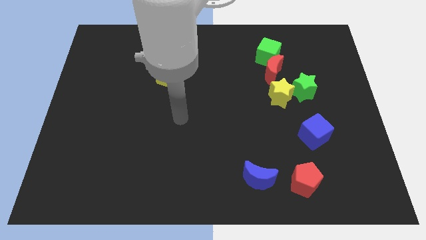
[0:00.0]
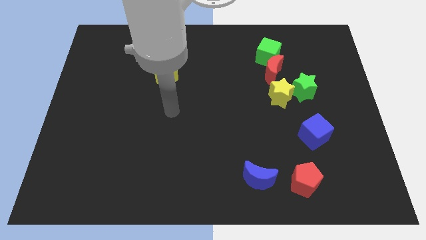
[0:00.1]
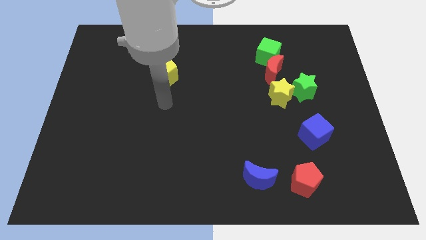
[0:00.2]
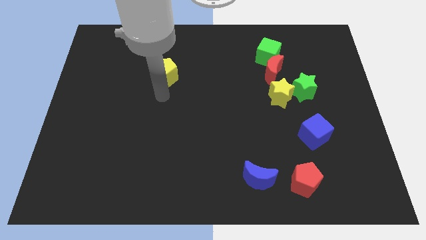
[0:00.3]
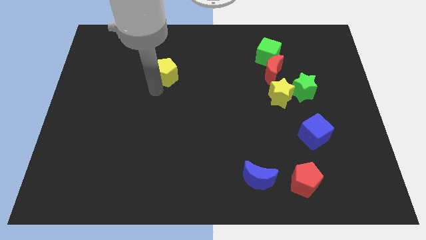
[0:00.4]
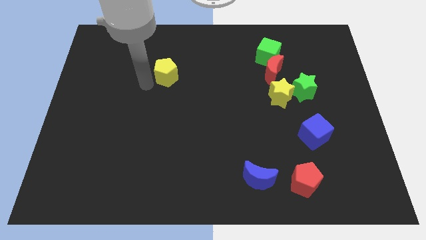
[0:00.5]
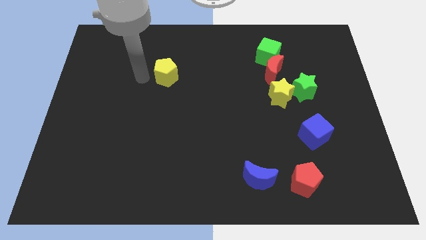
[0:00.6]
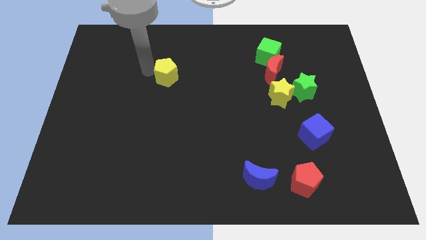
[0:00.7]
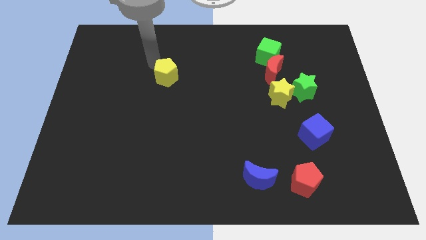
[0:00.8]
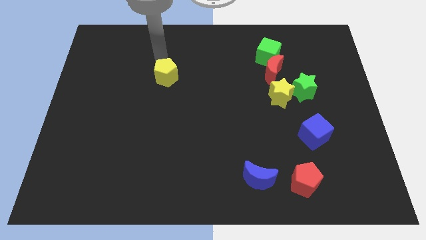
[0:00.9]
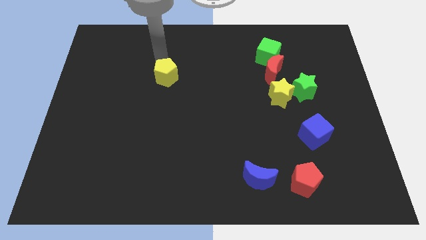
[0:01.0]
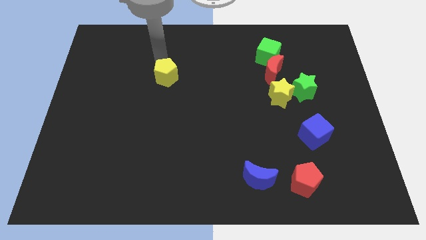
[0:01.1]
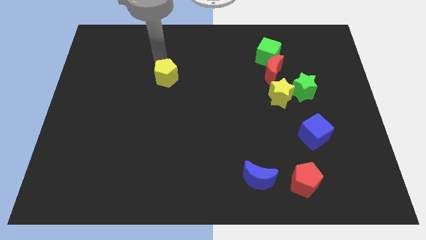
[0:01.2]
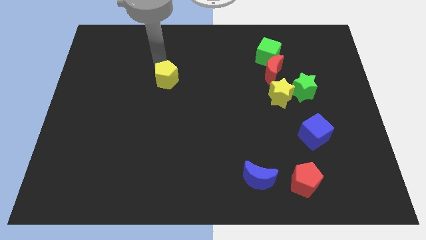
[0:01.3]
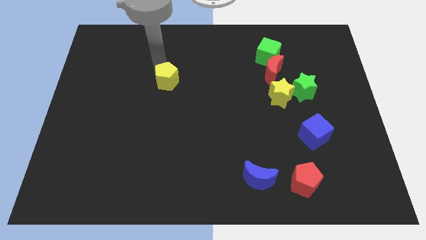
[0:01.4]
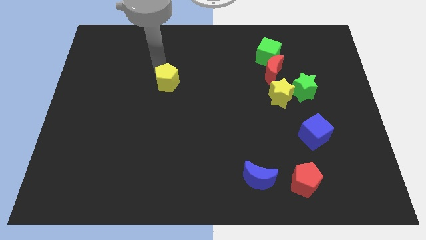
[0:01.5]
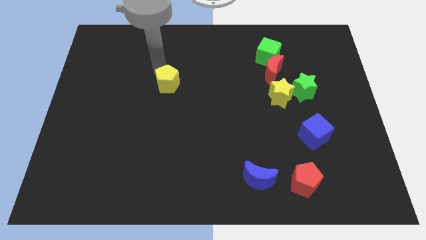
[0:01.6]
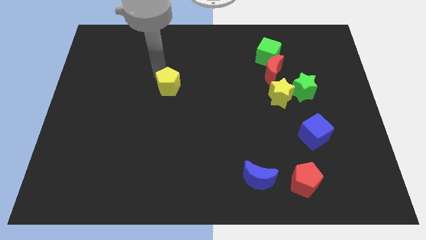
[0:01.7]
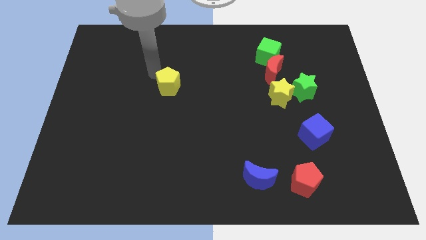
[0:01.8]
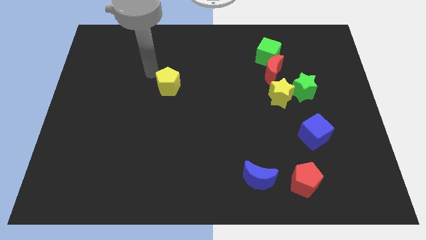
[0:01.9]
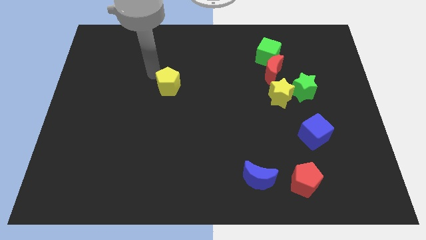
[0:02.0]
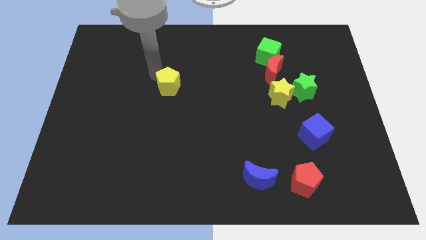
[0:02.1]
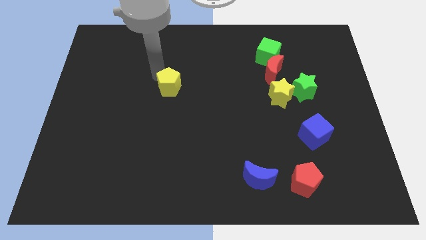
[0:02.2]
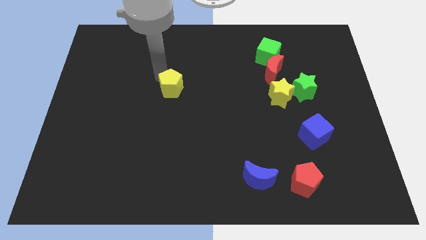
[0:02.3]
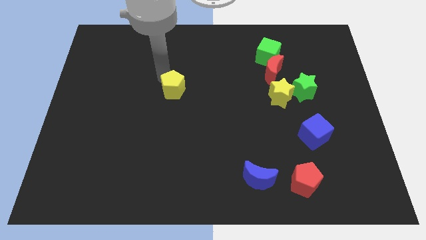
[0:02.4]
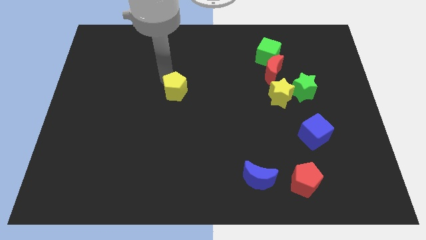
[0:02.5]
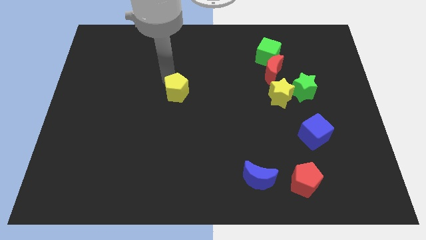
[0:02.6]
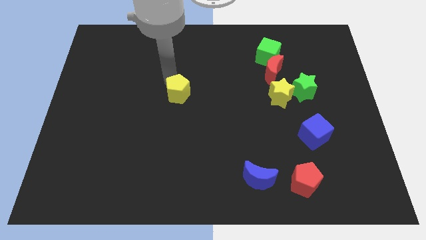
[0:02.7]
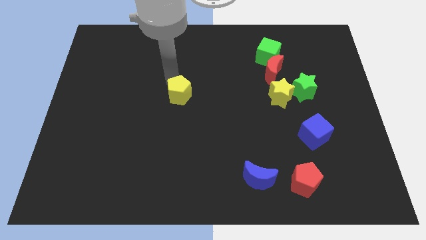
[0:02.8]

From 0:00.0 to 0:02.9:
move the yellow pentagon downwards and right a little bit

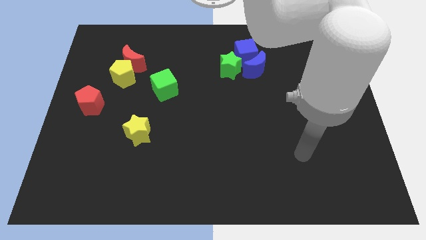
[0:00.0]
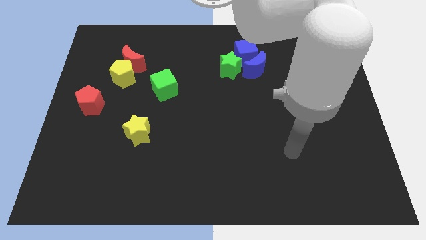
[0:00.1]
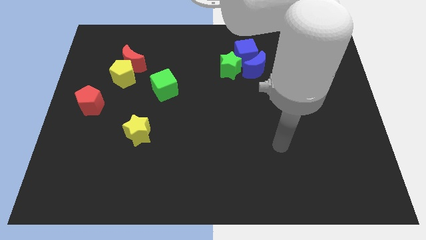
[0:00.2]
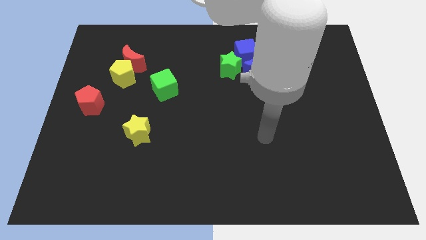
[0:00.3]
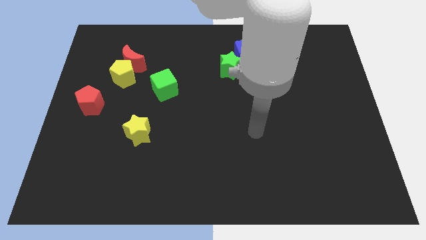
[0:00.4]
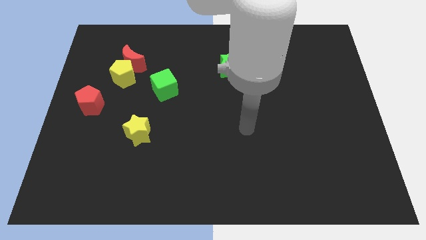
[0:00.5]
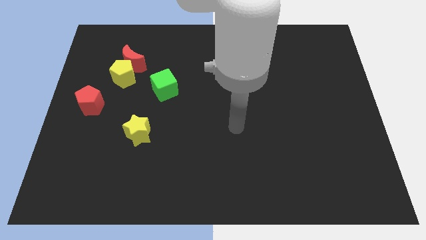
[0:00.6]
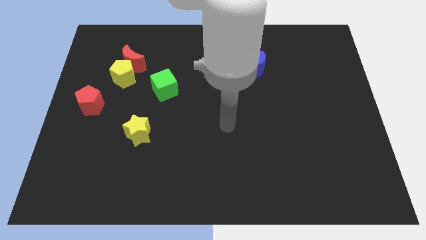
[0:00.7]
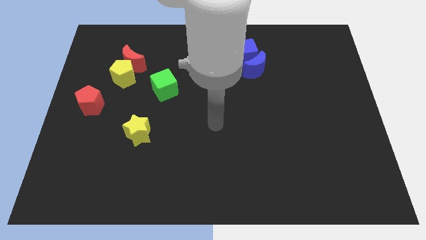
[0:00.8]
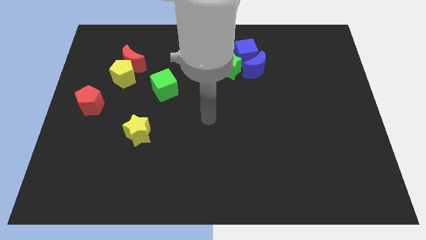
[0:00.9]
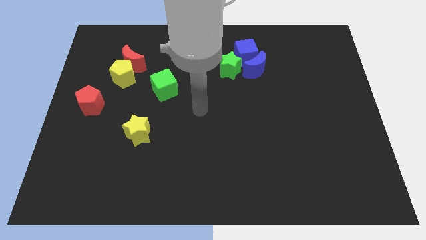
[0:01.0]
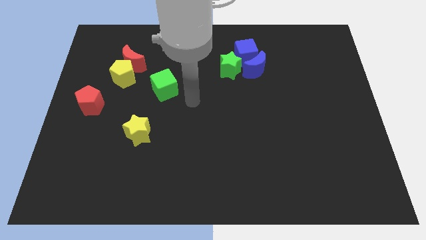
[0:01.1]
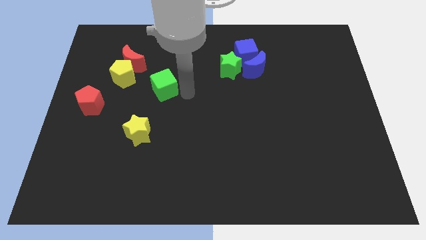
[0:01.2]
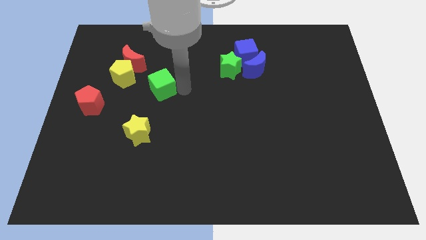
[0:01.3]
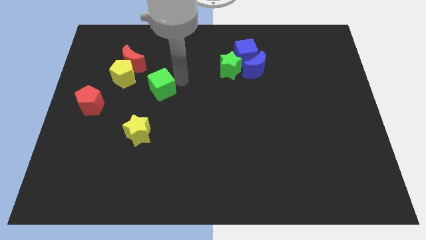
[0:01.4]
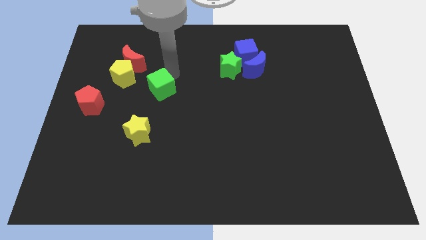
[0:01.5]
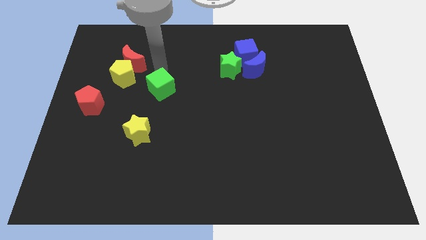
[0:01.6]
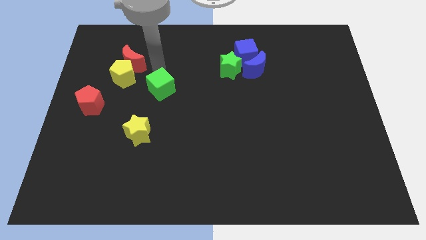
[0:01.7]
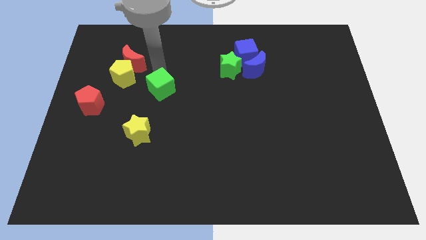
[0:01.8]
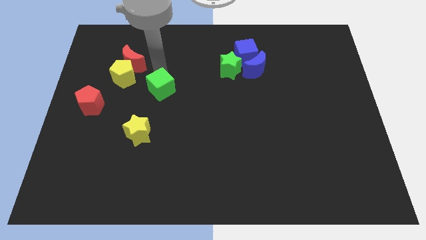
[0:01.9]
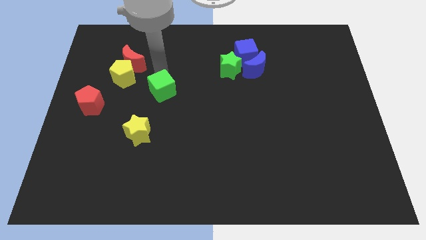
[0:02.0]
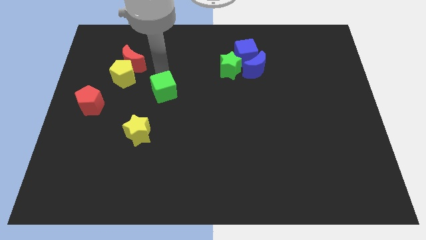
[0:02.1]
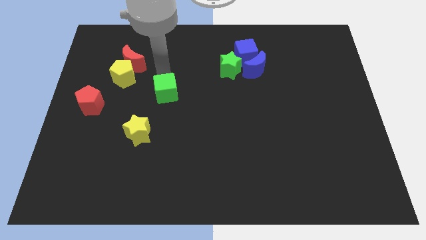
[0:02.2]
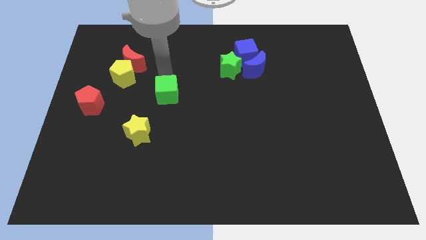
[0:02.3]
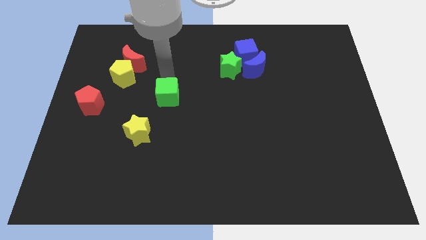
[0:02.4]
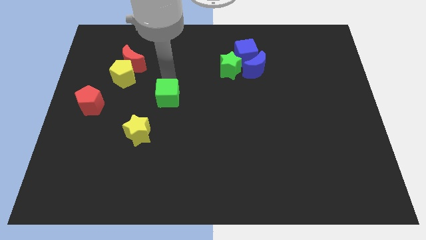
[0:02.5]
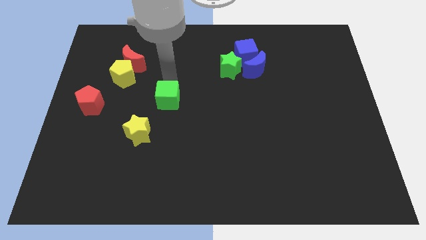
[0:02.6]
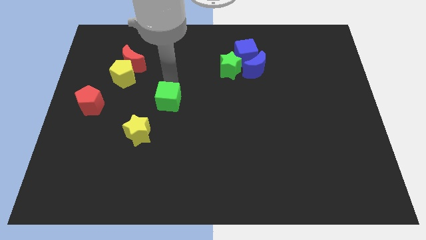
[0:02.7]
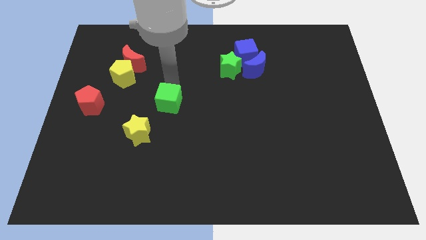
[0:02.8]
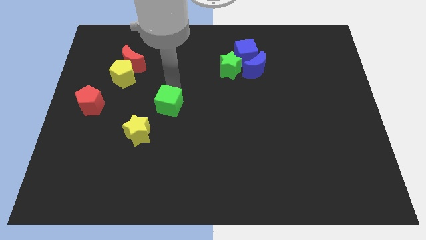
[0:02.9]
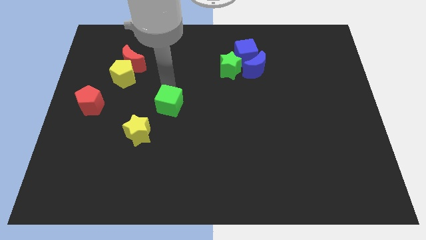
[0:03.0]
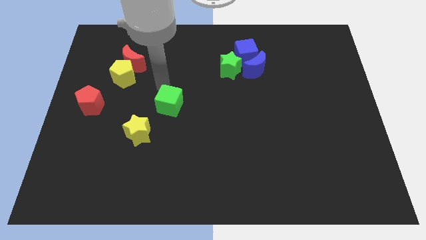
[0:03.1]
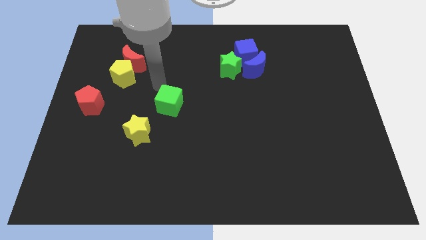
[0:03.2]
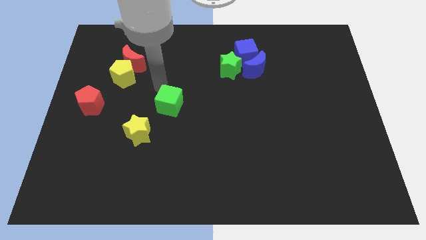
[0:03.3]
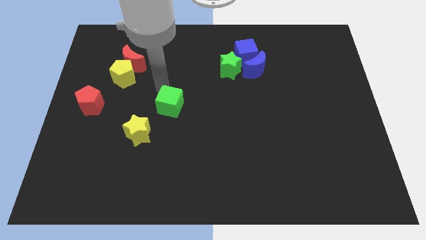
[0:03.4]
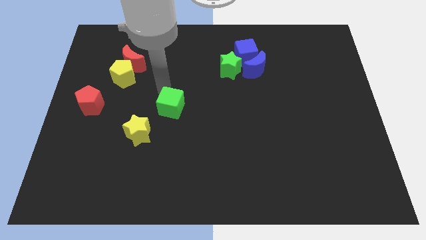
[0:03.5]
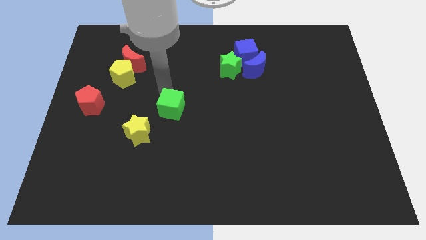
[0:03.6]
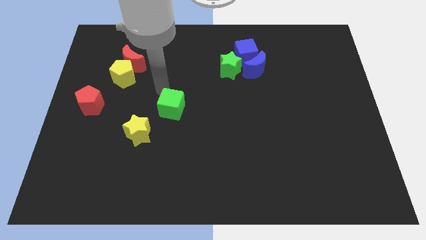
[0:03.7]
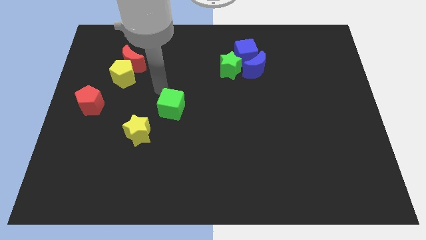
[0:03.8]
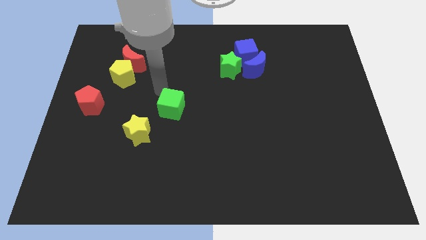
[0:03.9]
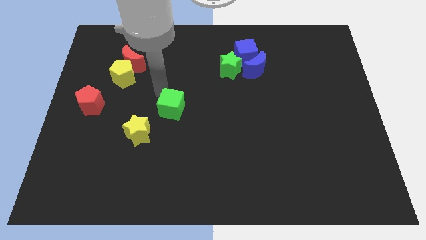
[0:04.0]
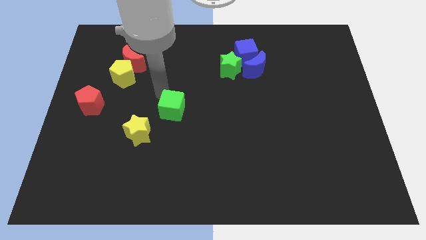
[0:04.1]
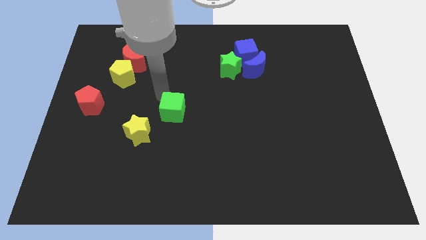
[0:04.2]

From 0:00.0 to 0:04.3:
slide the green cube a bit down

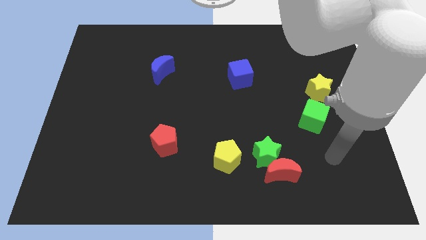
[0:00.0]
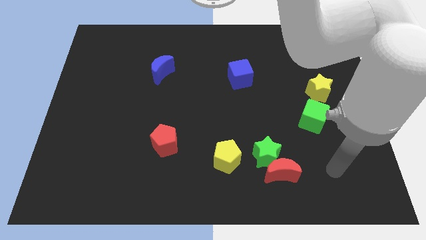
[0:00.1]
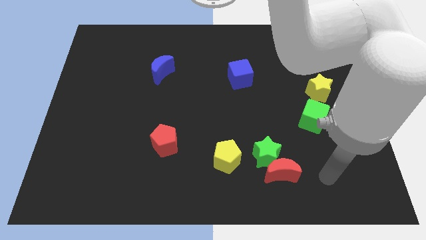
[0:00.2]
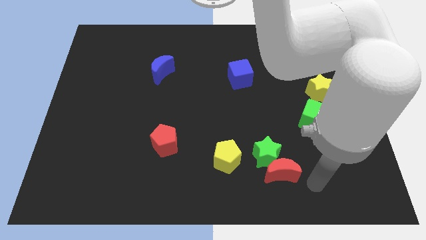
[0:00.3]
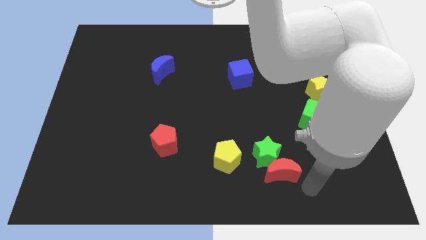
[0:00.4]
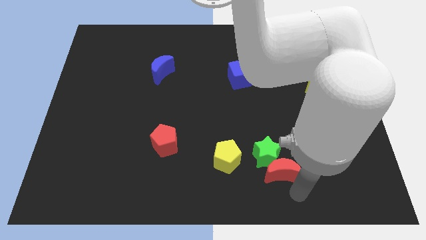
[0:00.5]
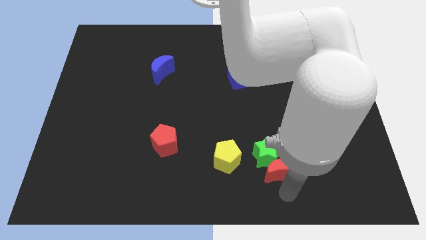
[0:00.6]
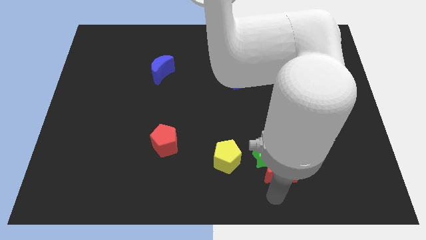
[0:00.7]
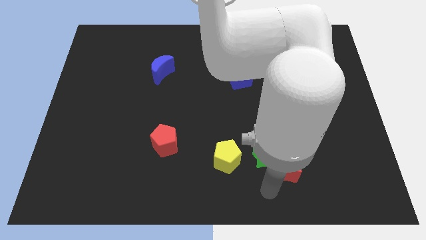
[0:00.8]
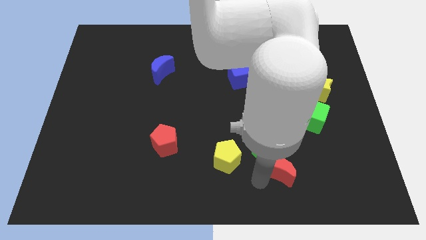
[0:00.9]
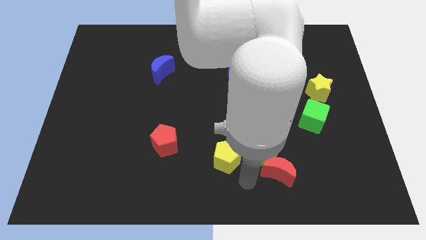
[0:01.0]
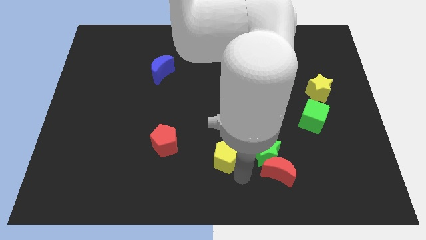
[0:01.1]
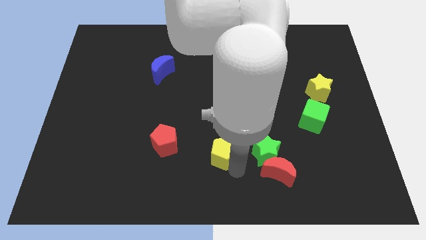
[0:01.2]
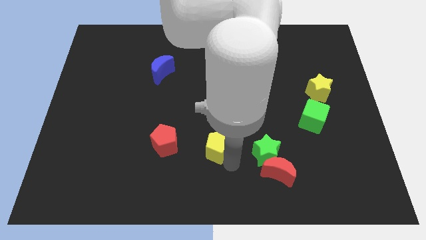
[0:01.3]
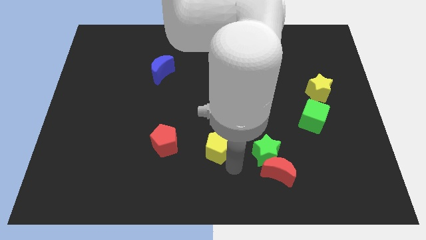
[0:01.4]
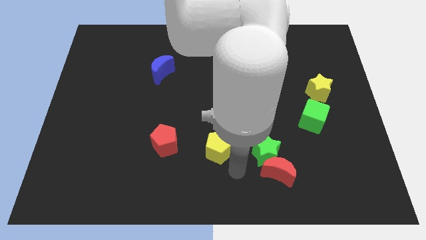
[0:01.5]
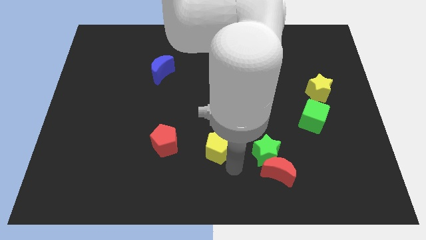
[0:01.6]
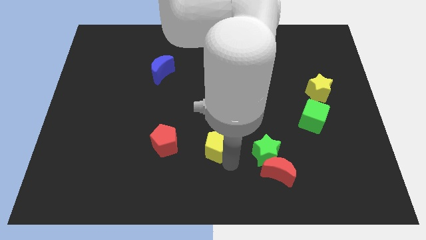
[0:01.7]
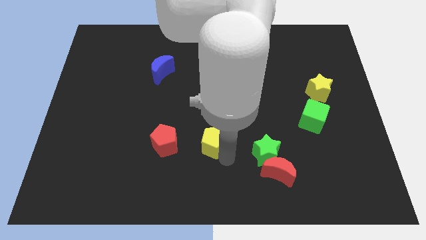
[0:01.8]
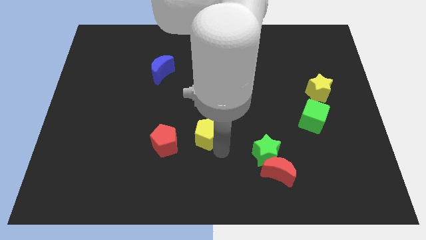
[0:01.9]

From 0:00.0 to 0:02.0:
move the yellow pentagon slightly up and left
